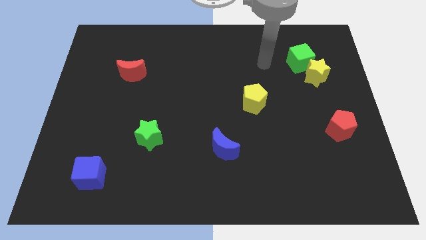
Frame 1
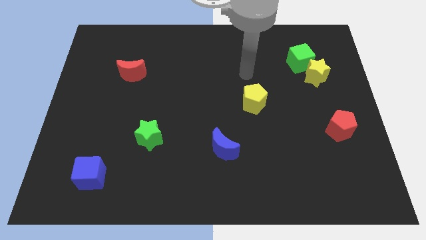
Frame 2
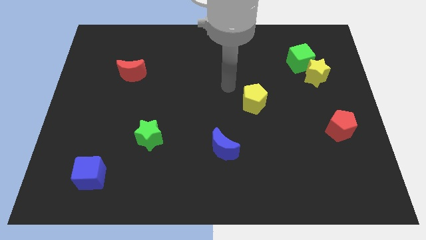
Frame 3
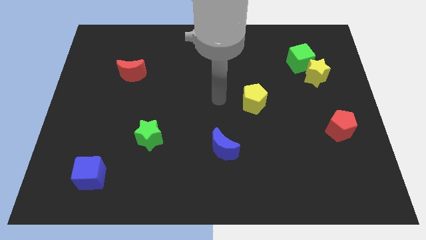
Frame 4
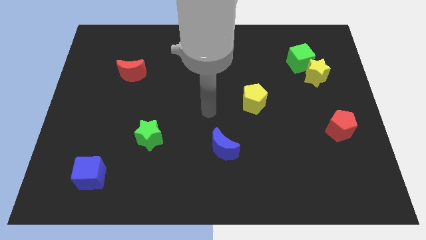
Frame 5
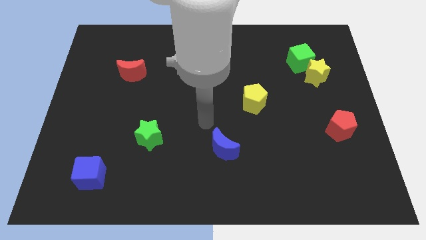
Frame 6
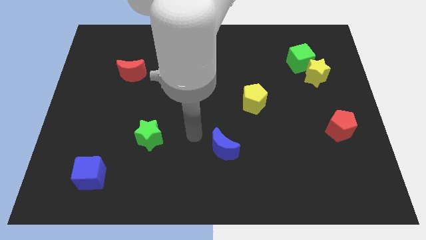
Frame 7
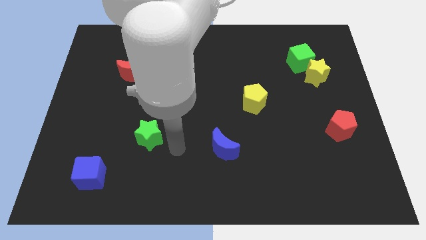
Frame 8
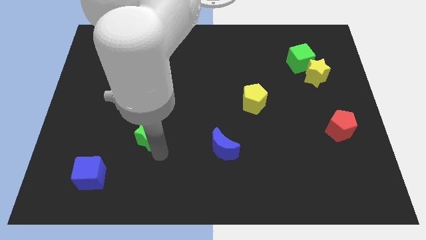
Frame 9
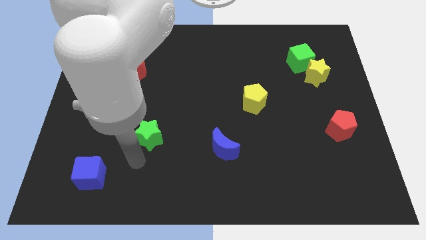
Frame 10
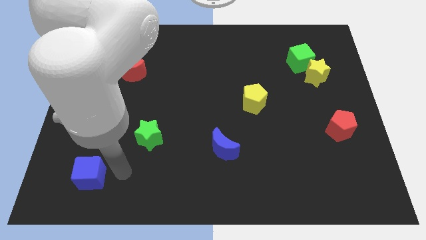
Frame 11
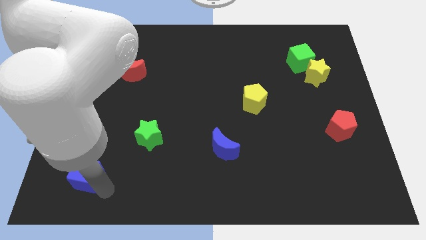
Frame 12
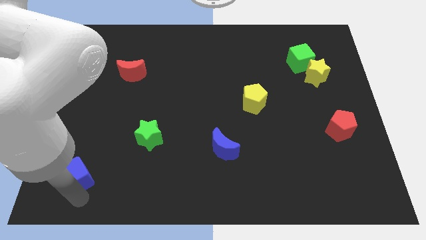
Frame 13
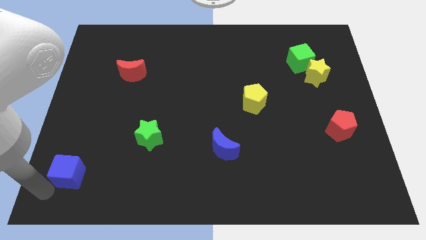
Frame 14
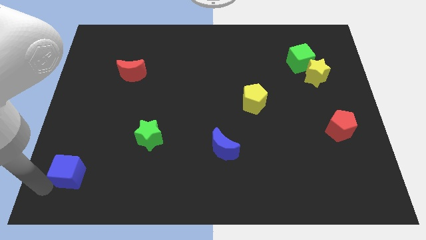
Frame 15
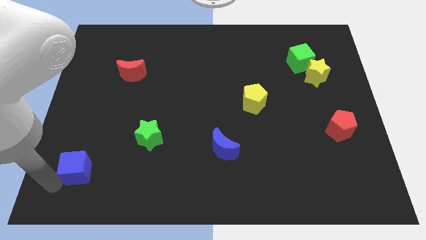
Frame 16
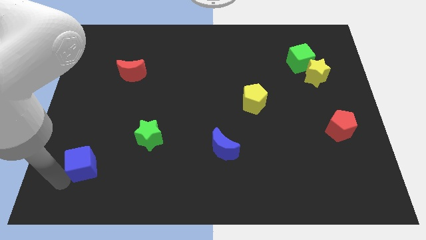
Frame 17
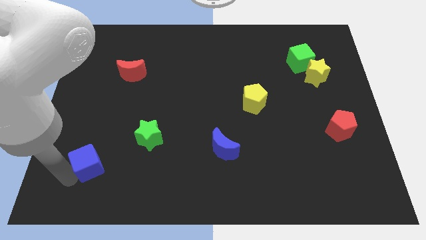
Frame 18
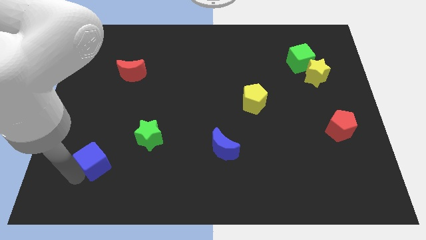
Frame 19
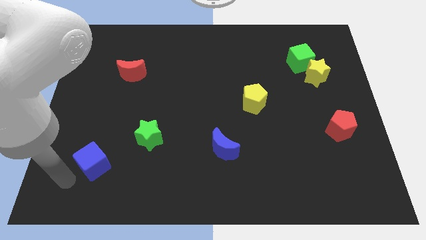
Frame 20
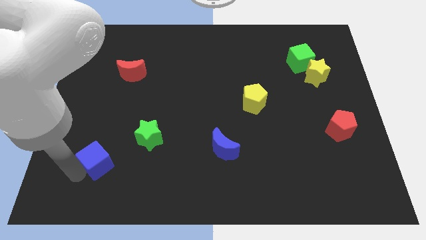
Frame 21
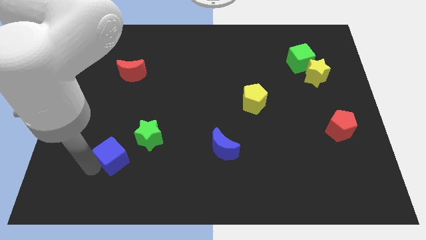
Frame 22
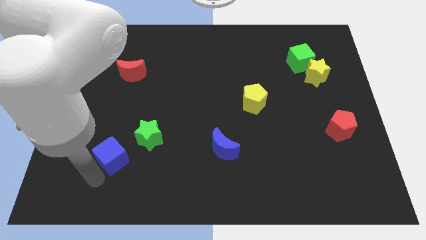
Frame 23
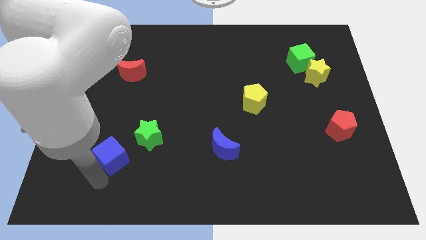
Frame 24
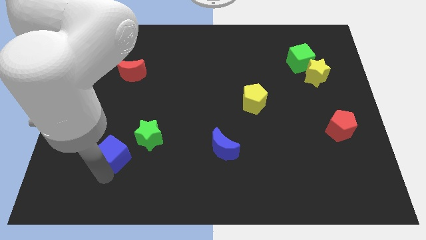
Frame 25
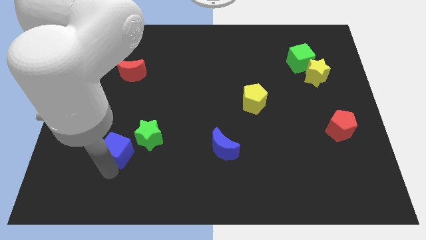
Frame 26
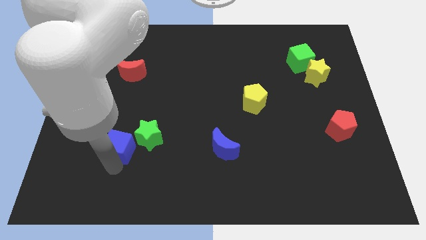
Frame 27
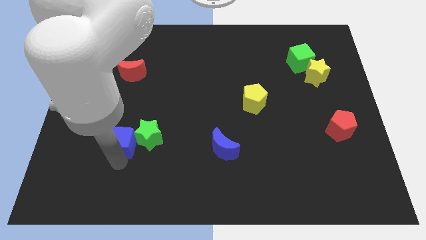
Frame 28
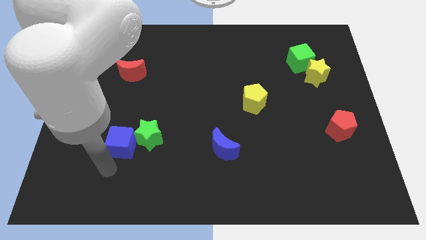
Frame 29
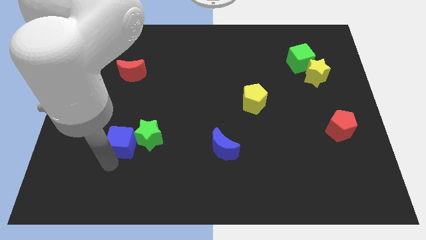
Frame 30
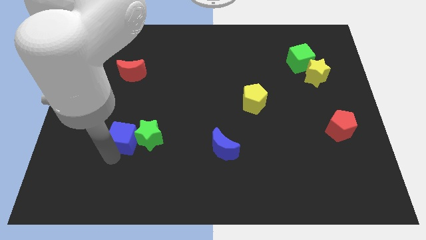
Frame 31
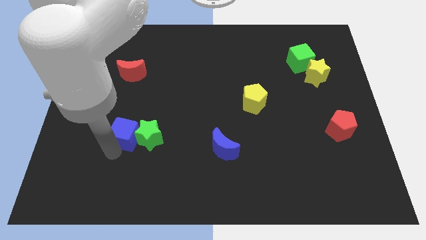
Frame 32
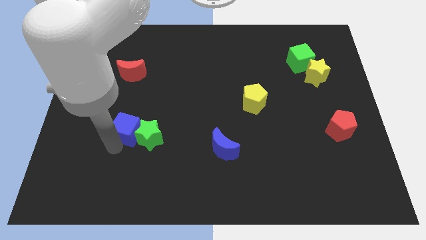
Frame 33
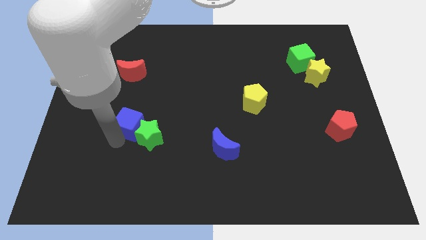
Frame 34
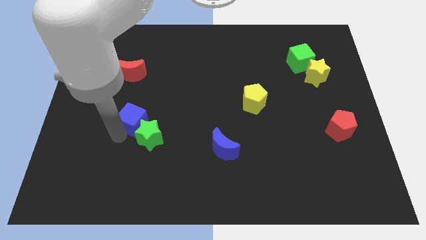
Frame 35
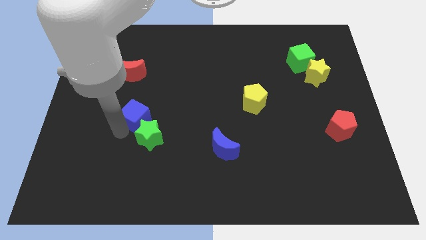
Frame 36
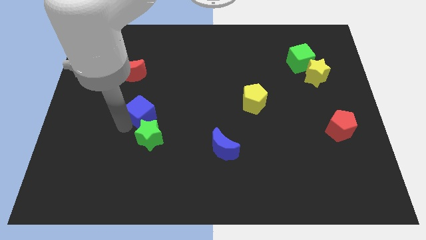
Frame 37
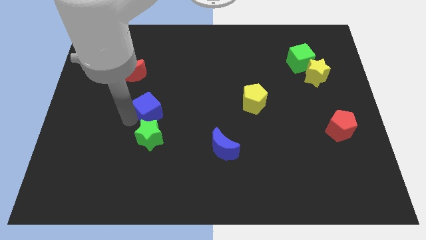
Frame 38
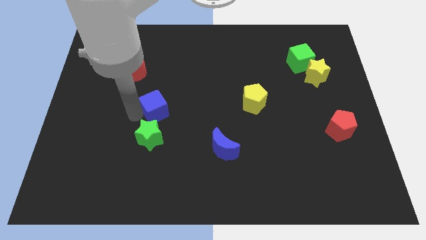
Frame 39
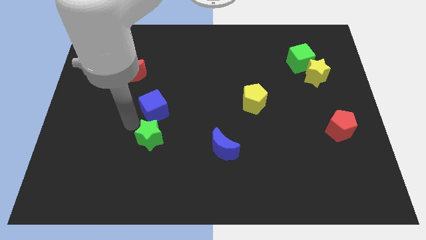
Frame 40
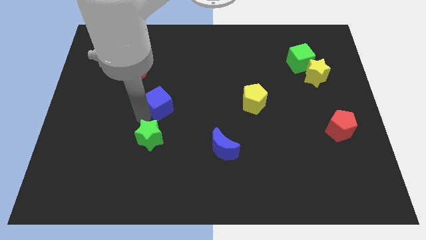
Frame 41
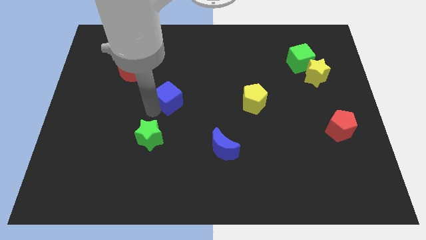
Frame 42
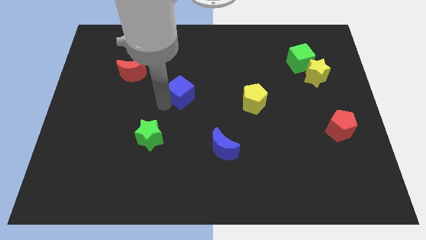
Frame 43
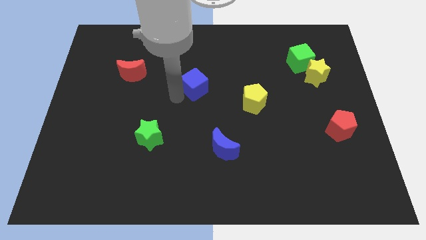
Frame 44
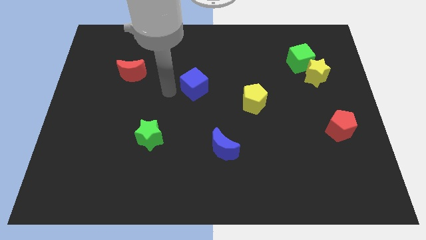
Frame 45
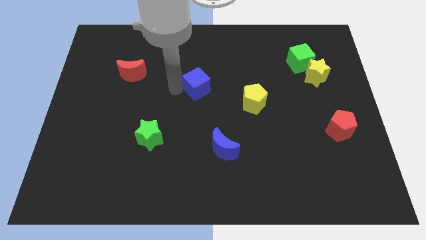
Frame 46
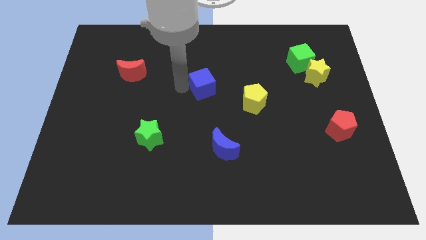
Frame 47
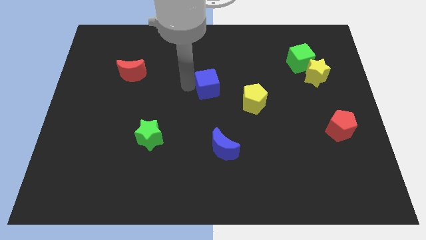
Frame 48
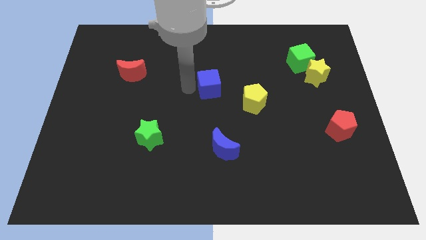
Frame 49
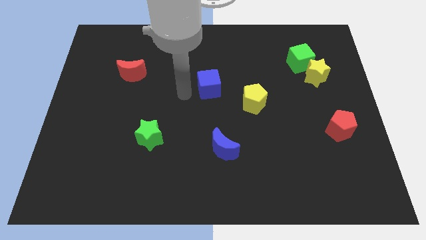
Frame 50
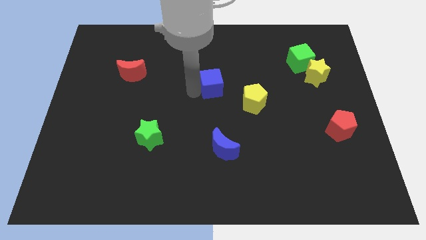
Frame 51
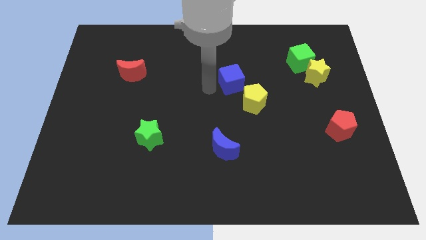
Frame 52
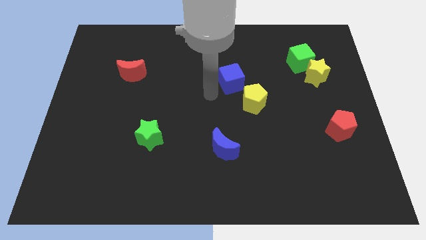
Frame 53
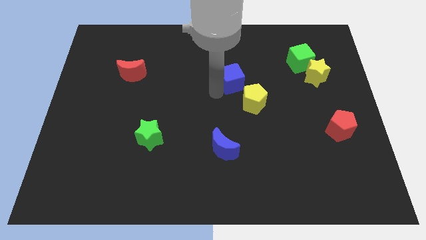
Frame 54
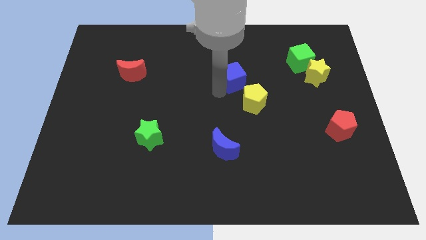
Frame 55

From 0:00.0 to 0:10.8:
put the blue cube above the yellow pentagon

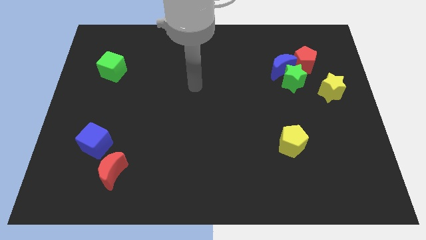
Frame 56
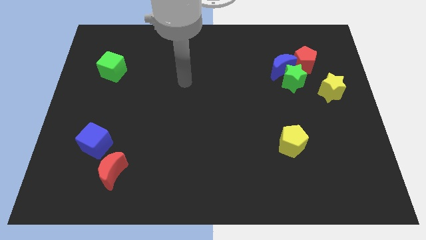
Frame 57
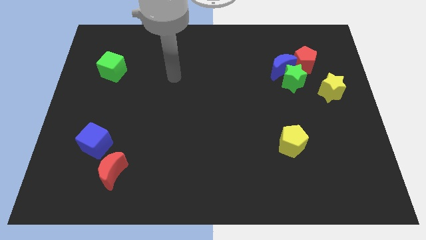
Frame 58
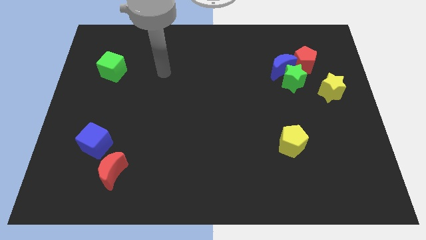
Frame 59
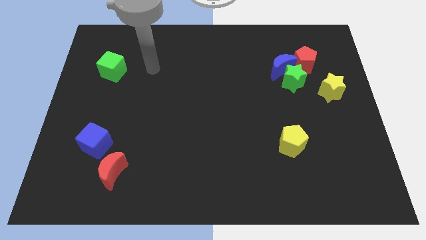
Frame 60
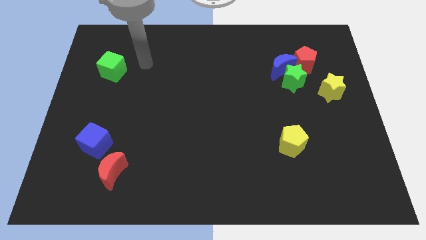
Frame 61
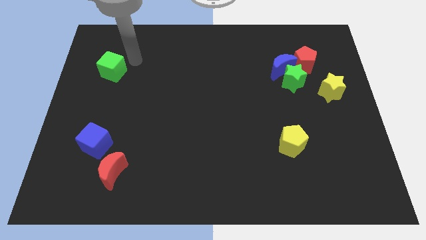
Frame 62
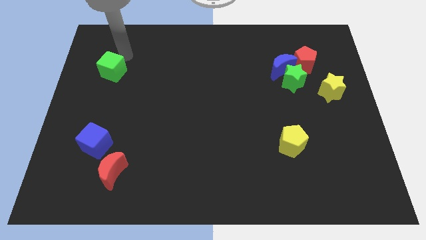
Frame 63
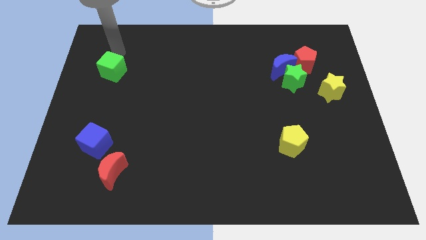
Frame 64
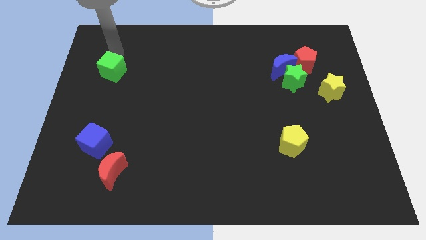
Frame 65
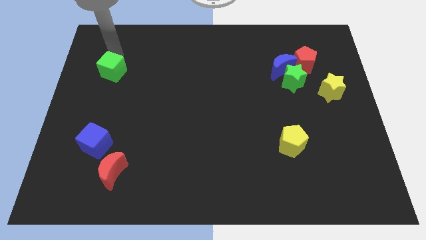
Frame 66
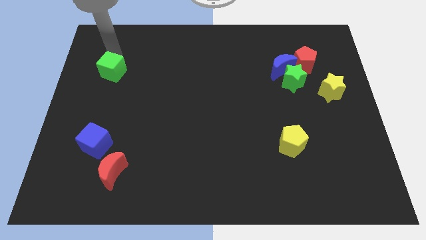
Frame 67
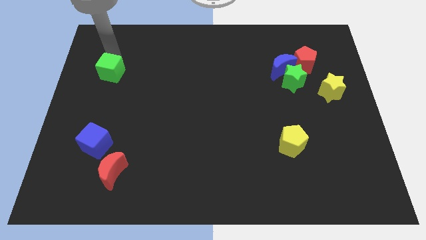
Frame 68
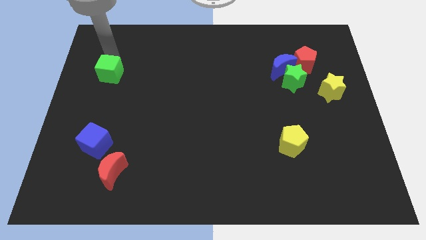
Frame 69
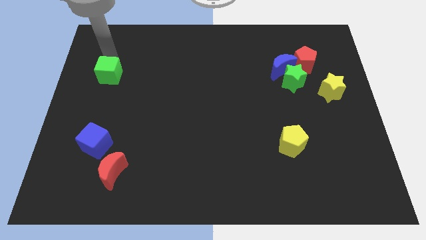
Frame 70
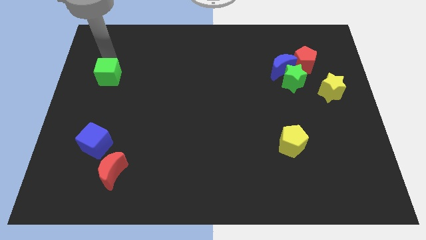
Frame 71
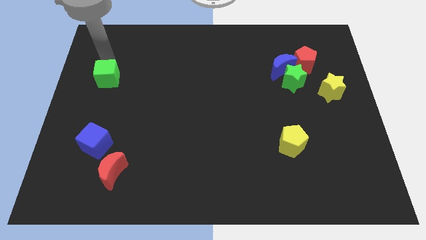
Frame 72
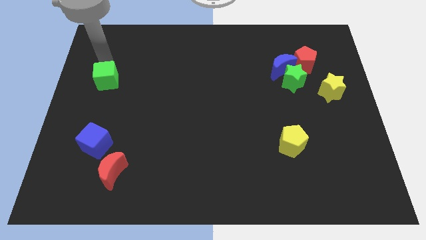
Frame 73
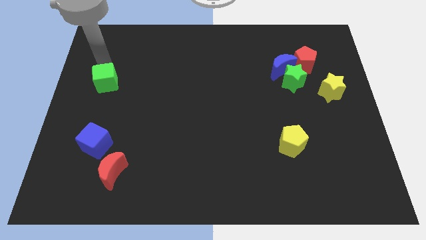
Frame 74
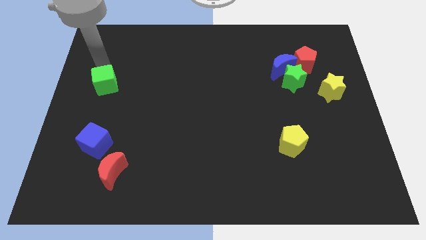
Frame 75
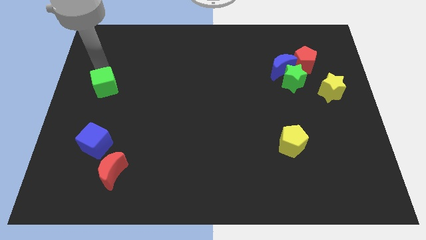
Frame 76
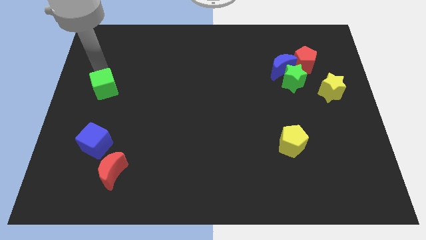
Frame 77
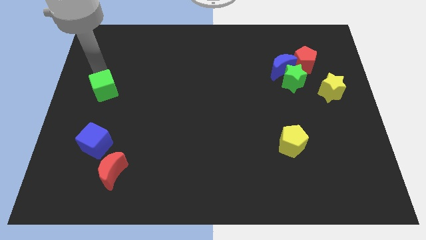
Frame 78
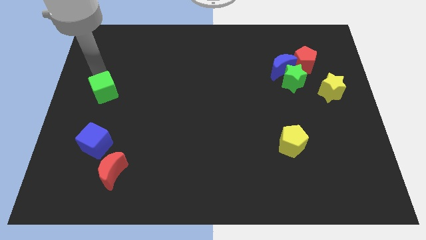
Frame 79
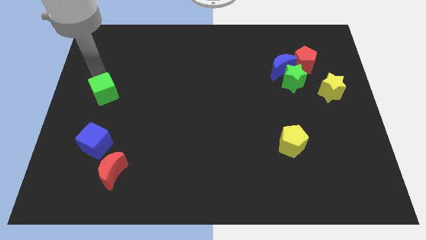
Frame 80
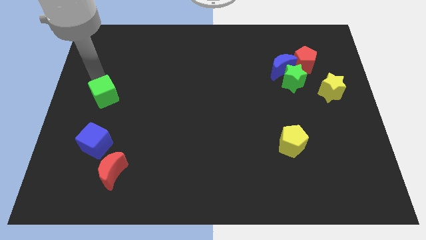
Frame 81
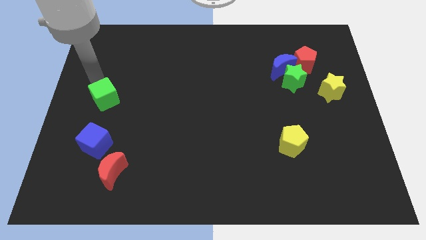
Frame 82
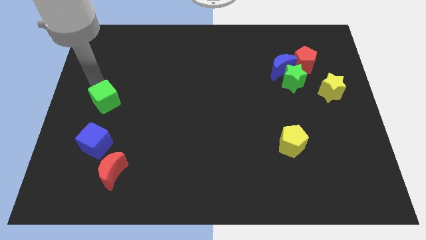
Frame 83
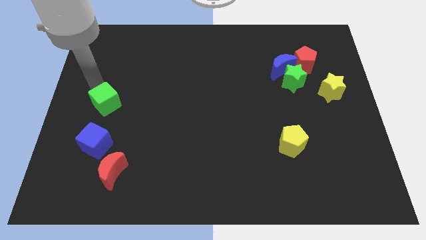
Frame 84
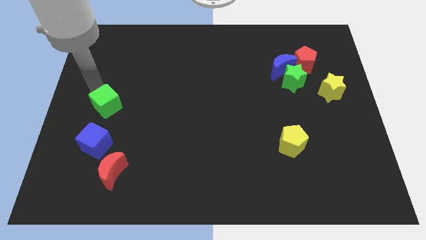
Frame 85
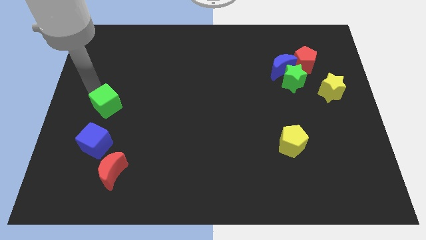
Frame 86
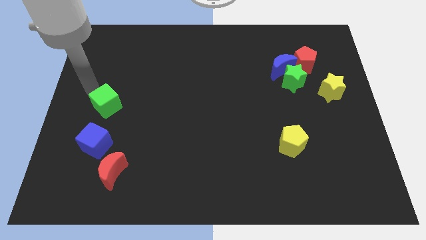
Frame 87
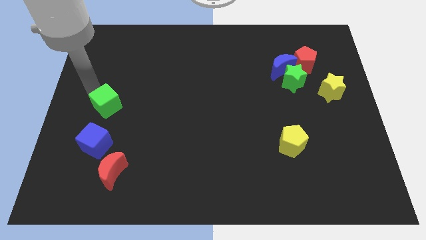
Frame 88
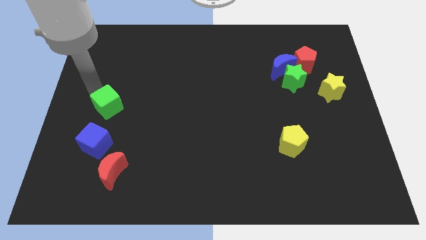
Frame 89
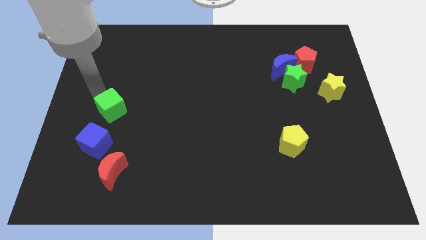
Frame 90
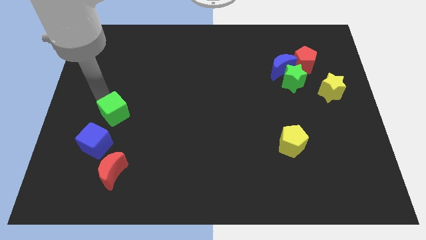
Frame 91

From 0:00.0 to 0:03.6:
move the green cube above the red moon
